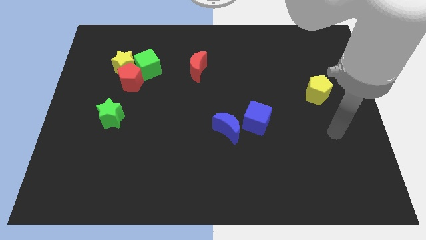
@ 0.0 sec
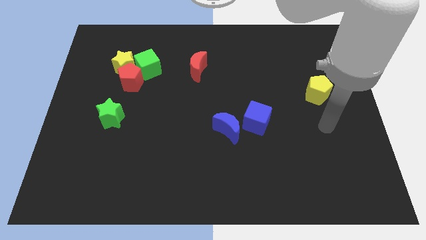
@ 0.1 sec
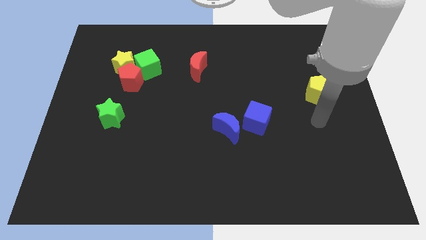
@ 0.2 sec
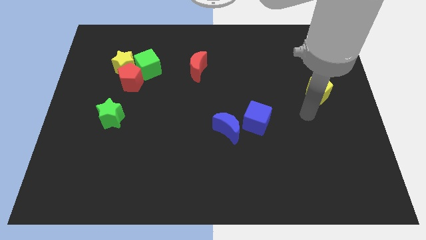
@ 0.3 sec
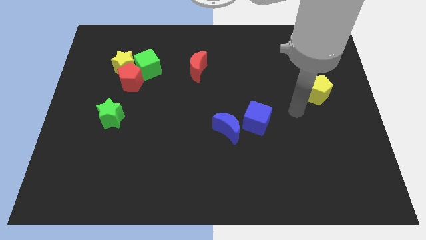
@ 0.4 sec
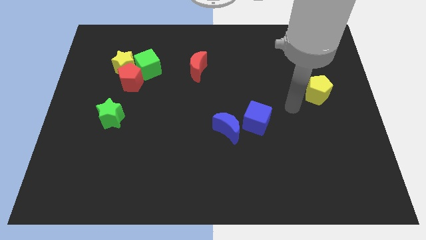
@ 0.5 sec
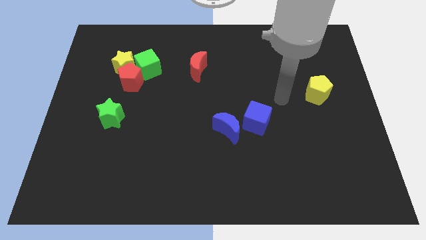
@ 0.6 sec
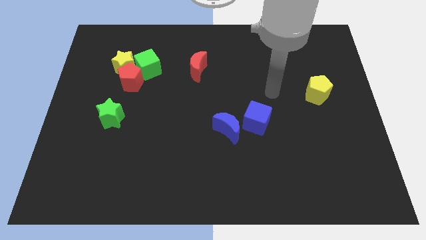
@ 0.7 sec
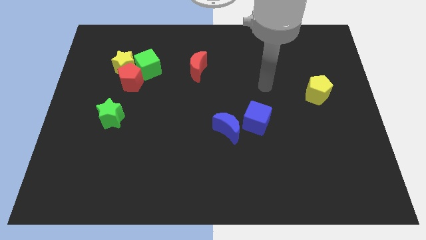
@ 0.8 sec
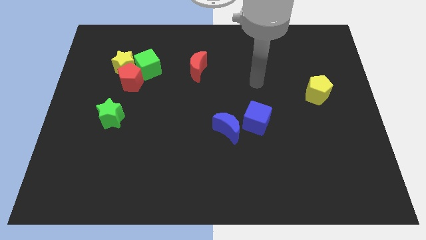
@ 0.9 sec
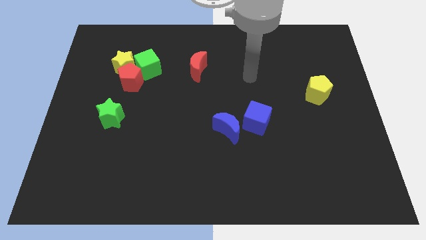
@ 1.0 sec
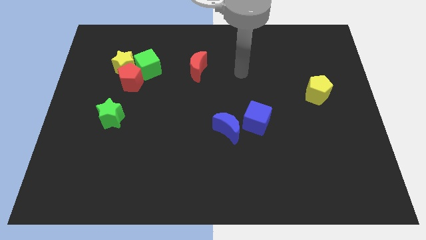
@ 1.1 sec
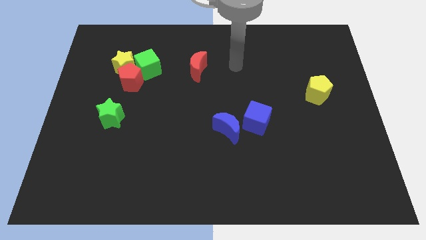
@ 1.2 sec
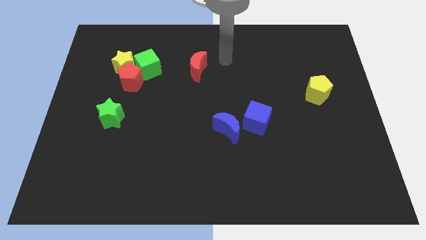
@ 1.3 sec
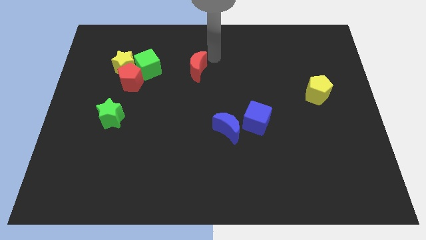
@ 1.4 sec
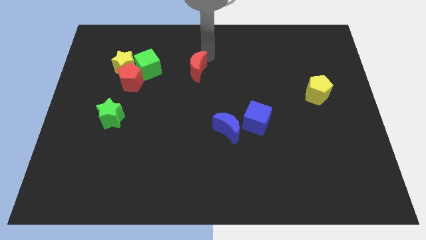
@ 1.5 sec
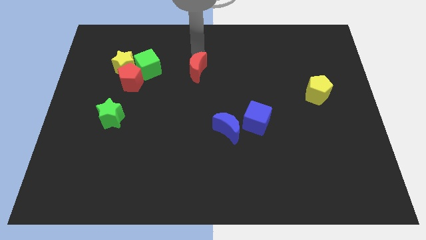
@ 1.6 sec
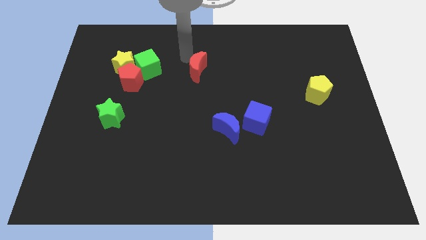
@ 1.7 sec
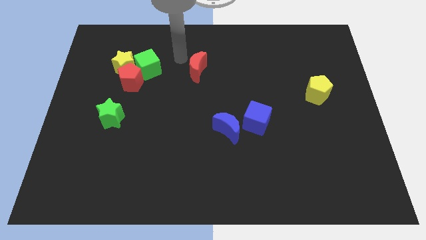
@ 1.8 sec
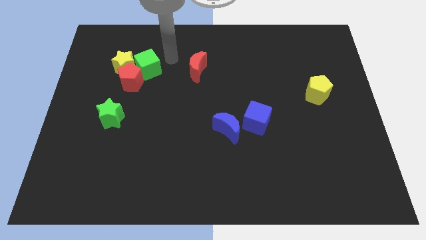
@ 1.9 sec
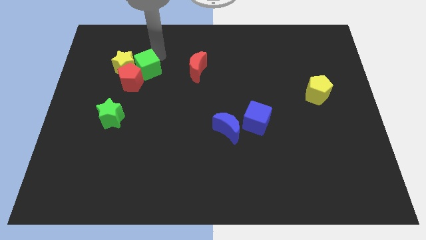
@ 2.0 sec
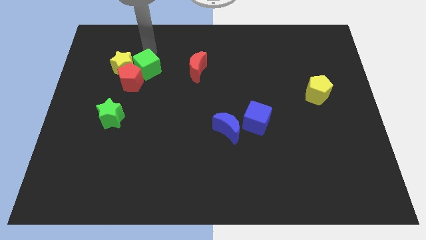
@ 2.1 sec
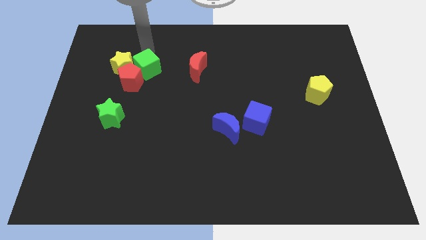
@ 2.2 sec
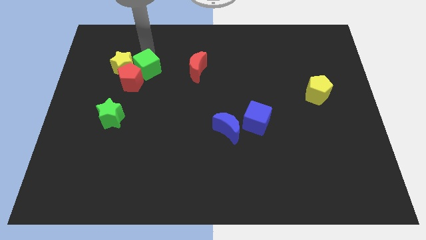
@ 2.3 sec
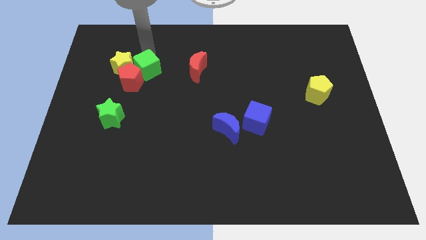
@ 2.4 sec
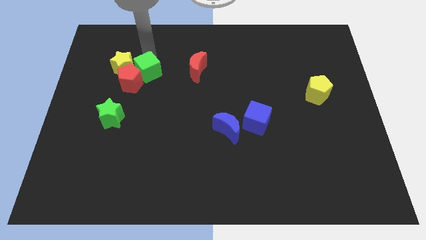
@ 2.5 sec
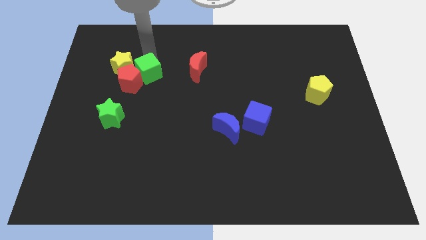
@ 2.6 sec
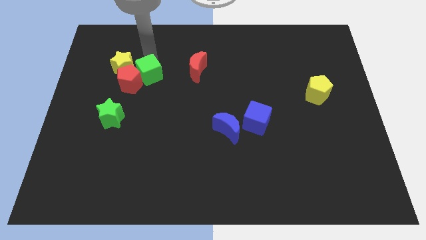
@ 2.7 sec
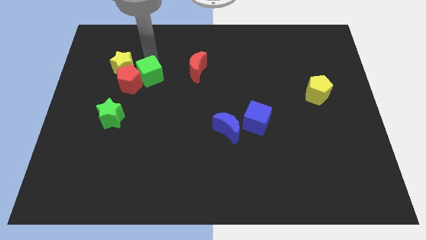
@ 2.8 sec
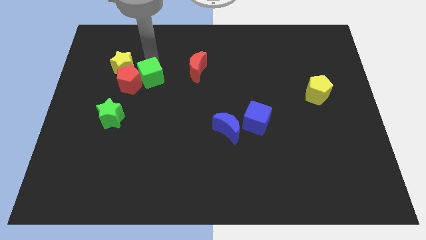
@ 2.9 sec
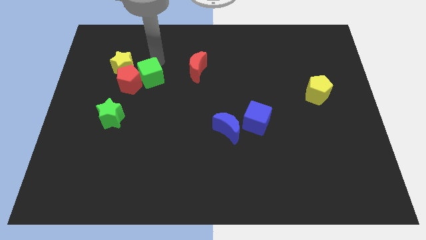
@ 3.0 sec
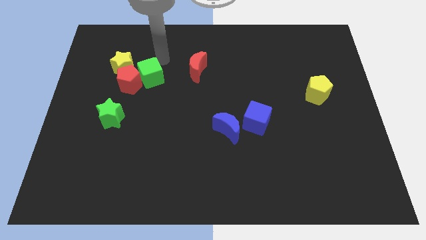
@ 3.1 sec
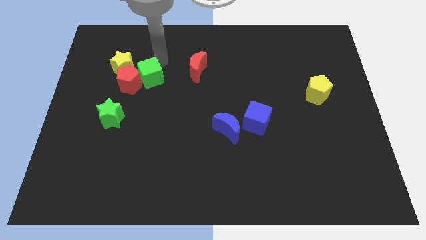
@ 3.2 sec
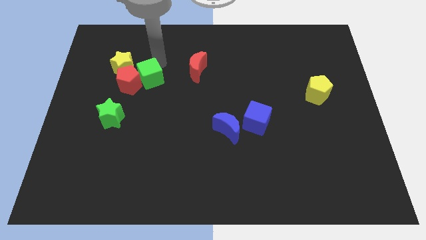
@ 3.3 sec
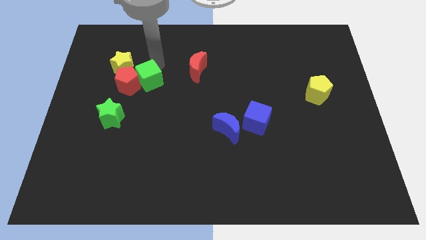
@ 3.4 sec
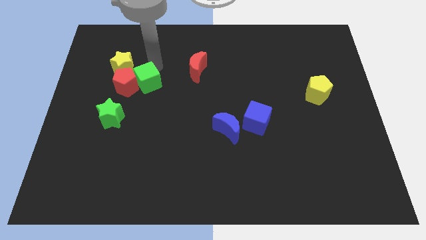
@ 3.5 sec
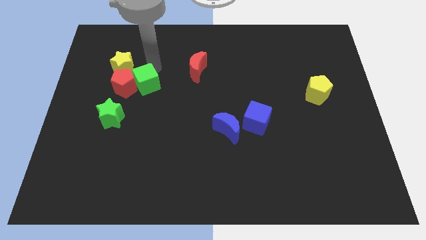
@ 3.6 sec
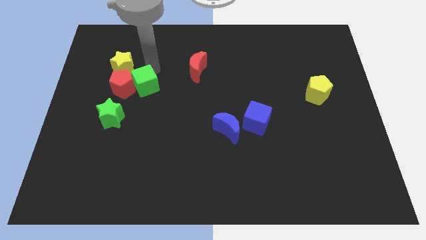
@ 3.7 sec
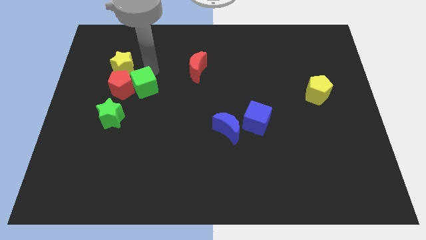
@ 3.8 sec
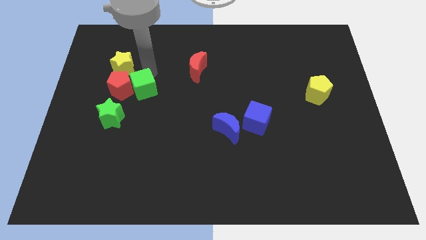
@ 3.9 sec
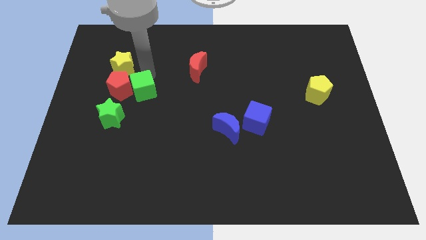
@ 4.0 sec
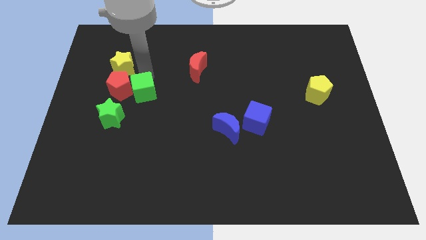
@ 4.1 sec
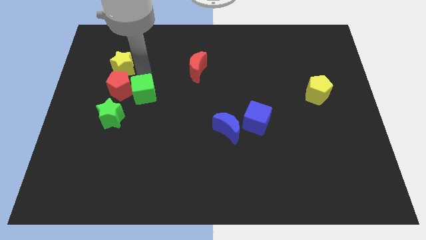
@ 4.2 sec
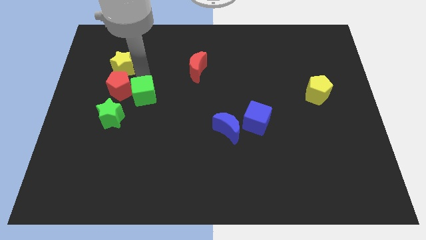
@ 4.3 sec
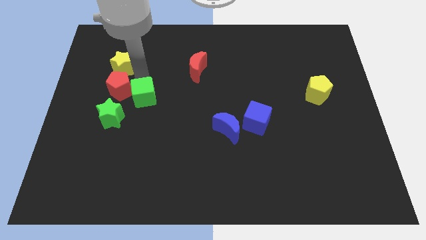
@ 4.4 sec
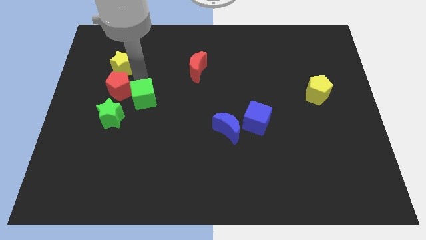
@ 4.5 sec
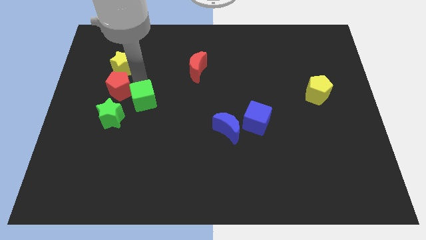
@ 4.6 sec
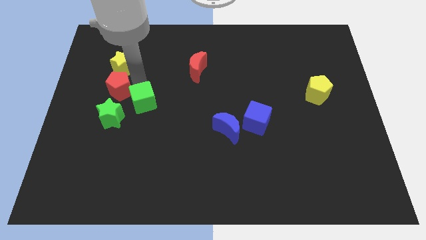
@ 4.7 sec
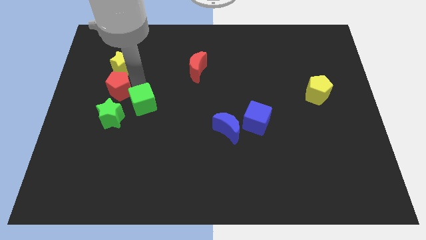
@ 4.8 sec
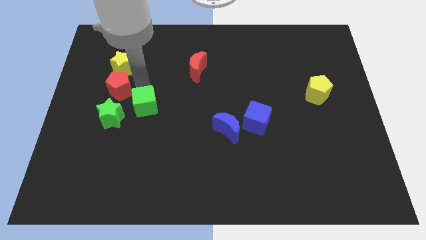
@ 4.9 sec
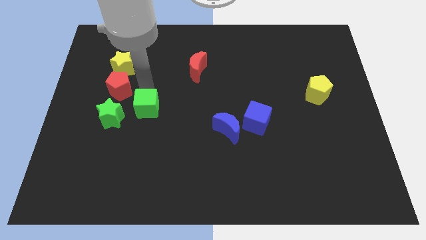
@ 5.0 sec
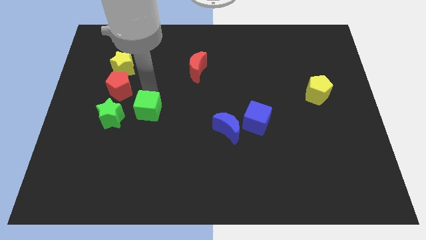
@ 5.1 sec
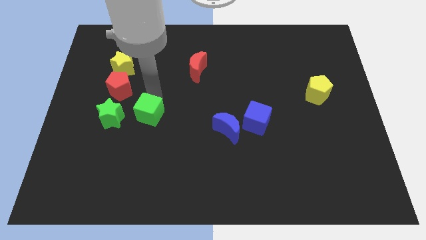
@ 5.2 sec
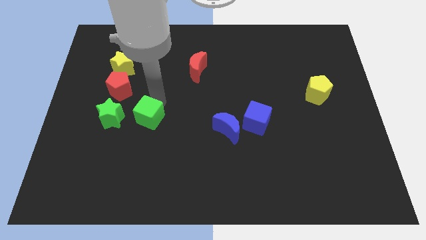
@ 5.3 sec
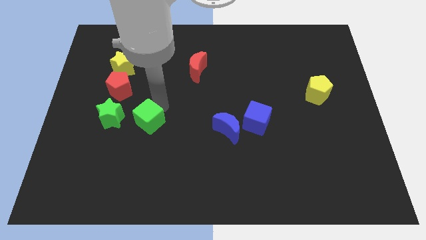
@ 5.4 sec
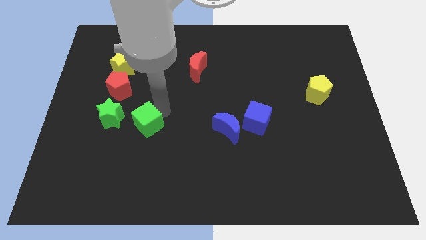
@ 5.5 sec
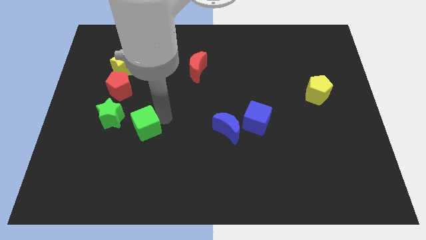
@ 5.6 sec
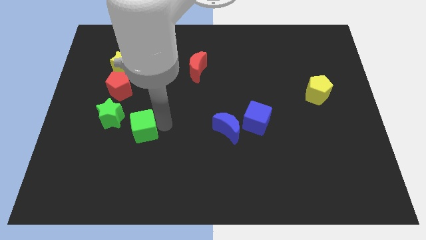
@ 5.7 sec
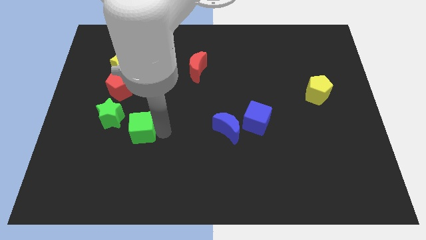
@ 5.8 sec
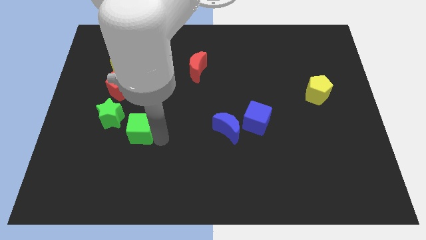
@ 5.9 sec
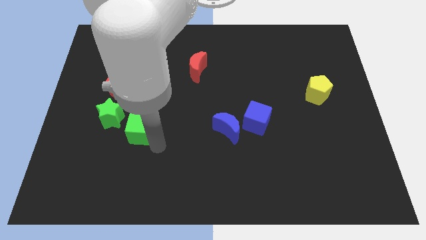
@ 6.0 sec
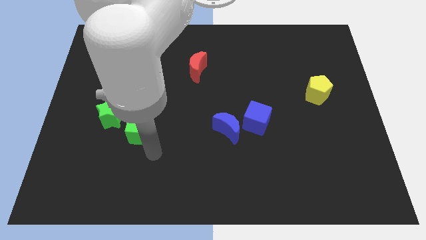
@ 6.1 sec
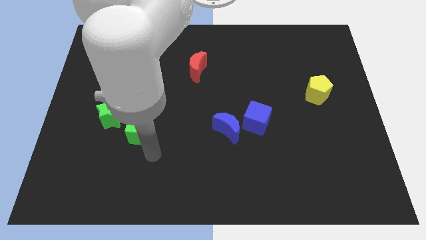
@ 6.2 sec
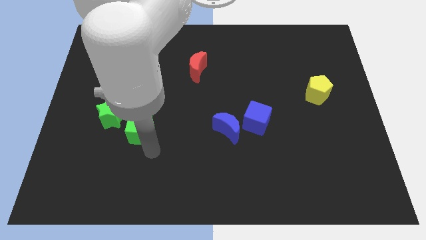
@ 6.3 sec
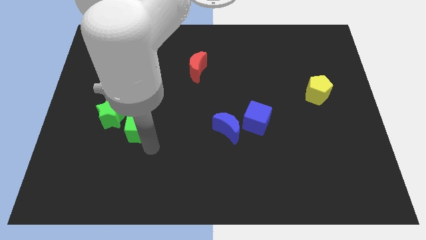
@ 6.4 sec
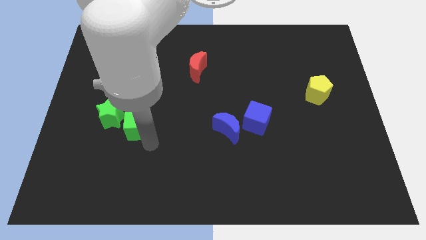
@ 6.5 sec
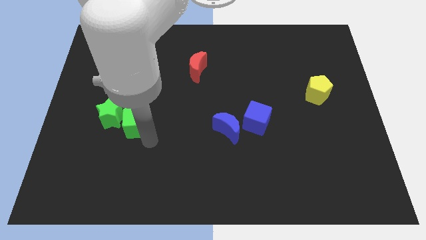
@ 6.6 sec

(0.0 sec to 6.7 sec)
move the green cube to the green star
